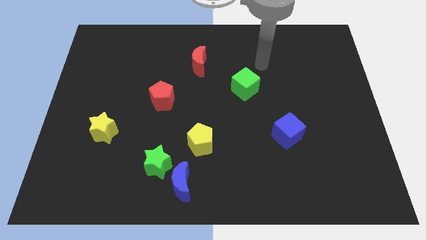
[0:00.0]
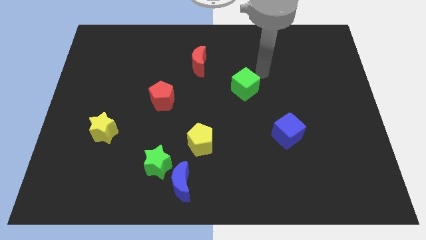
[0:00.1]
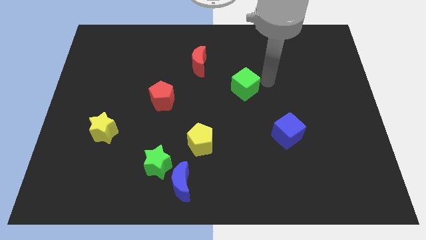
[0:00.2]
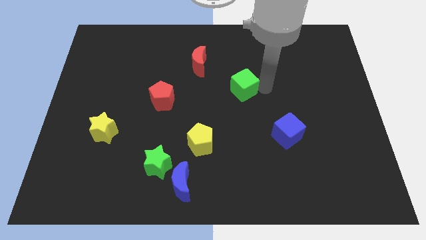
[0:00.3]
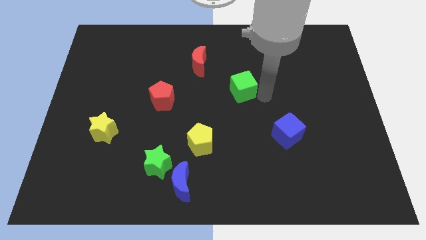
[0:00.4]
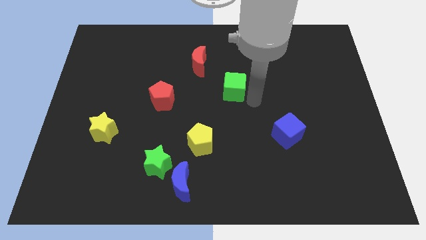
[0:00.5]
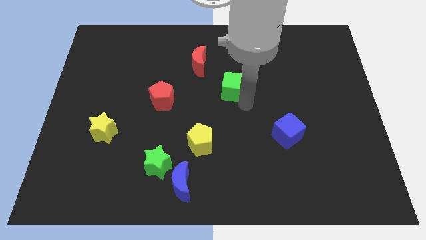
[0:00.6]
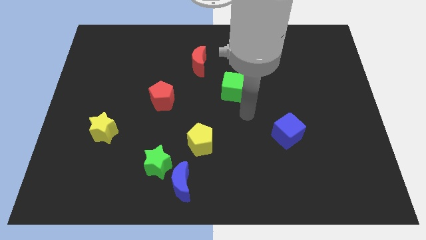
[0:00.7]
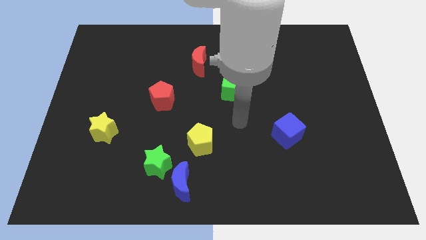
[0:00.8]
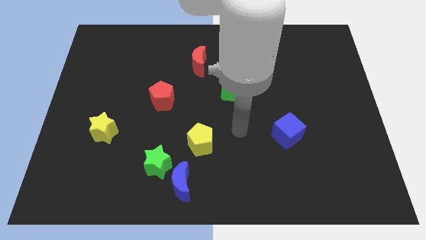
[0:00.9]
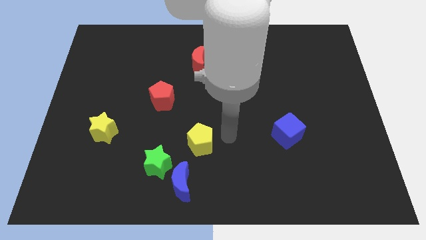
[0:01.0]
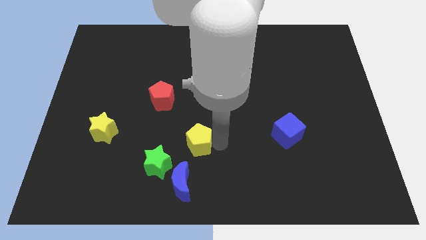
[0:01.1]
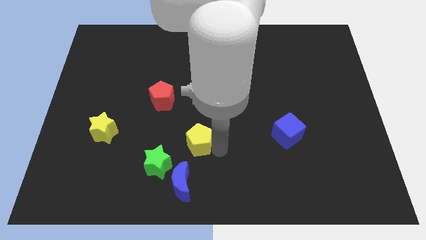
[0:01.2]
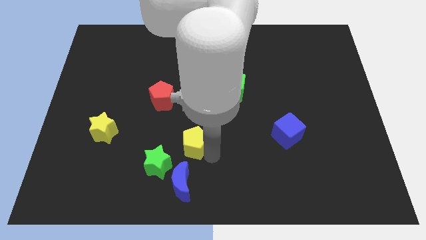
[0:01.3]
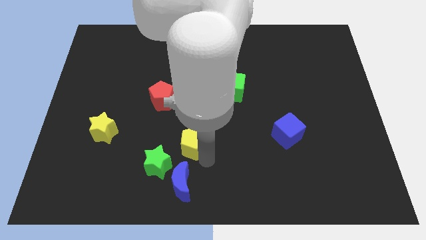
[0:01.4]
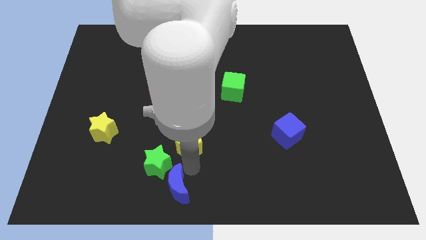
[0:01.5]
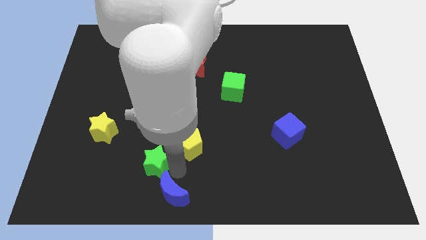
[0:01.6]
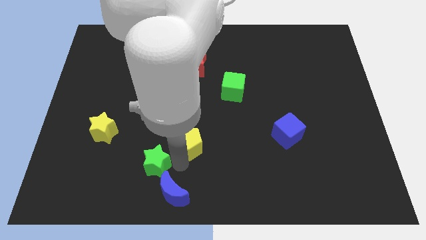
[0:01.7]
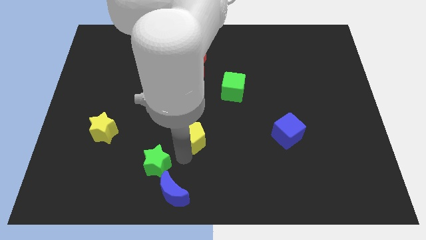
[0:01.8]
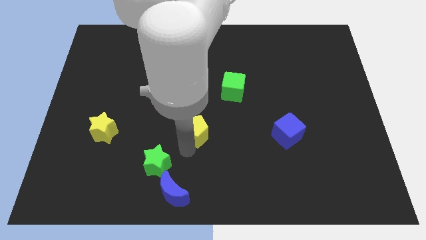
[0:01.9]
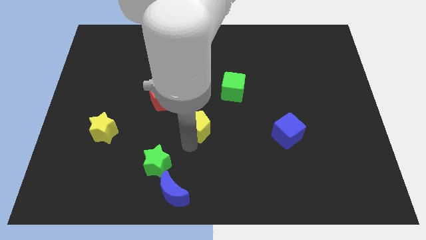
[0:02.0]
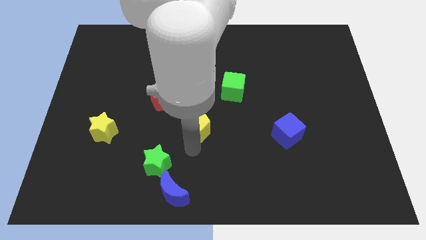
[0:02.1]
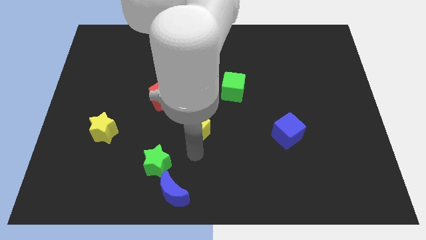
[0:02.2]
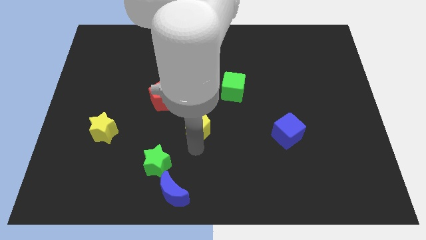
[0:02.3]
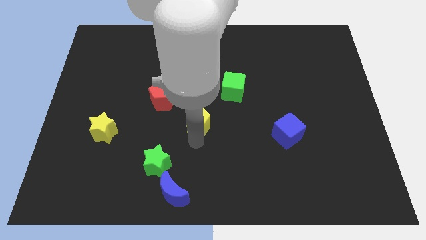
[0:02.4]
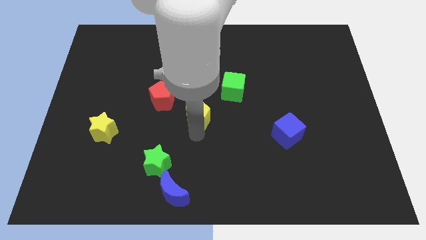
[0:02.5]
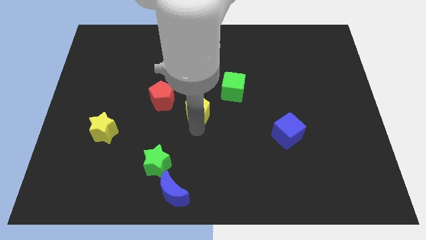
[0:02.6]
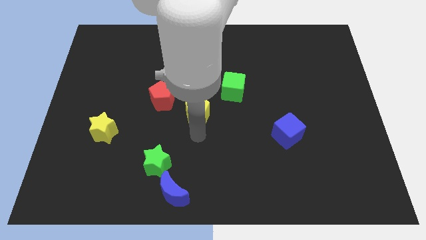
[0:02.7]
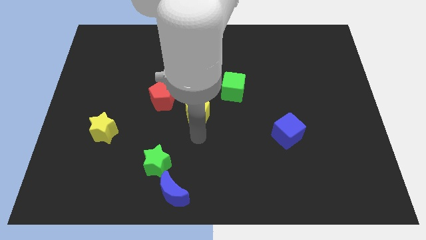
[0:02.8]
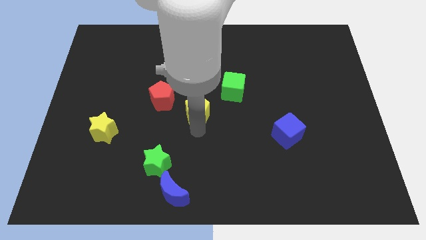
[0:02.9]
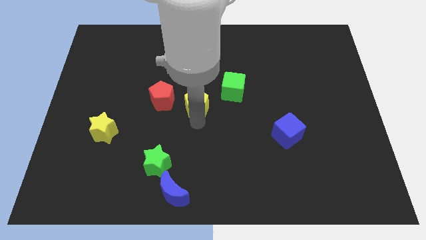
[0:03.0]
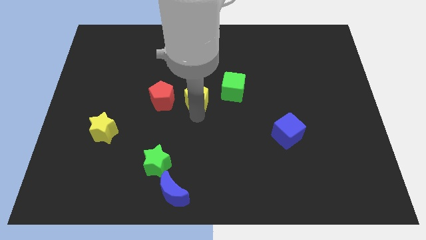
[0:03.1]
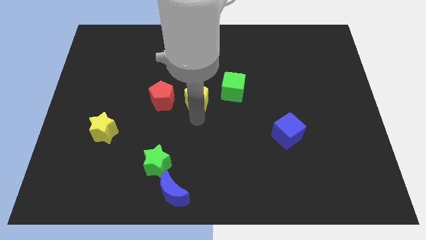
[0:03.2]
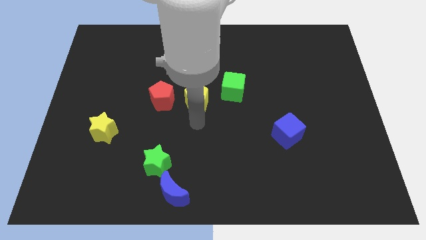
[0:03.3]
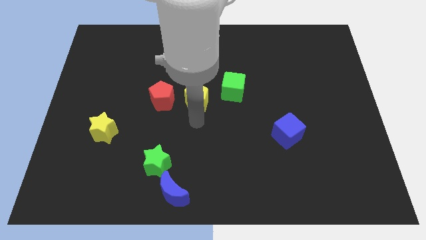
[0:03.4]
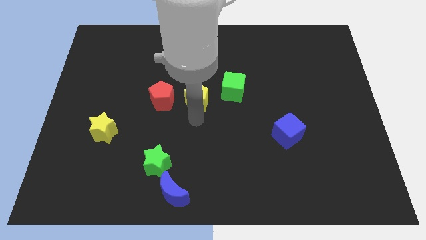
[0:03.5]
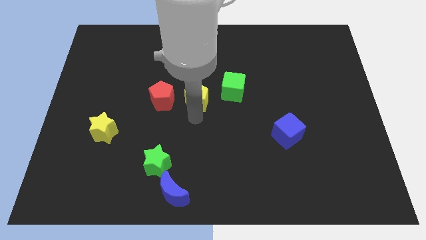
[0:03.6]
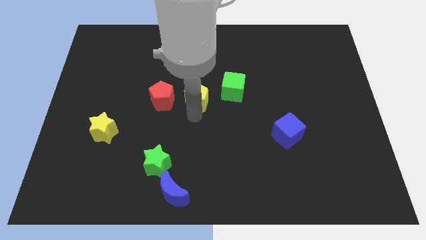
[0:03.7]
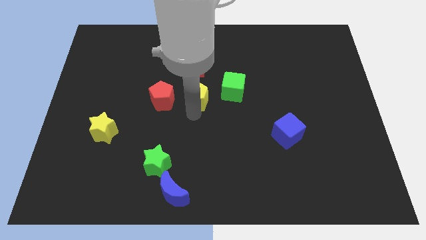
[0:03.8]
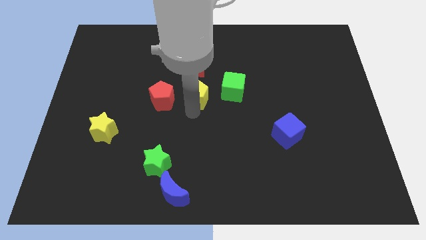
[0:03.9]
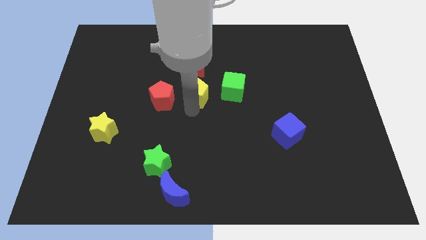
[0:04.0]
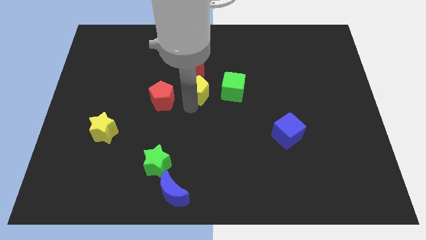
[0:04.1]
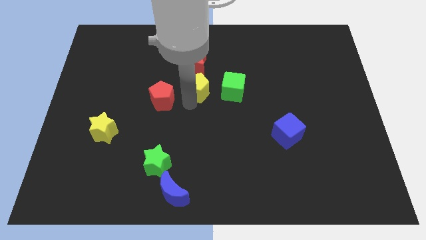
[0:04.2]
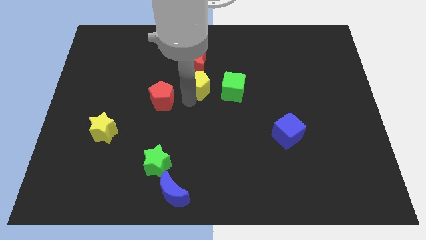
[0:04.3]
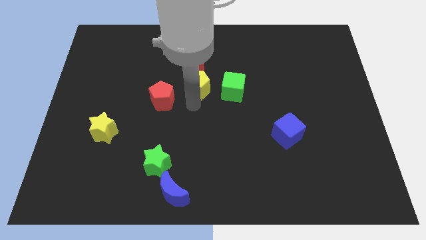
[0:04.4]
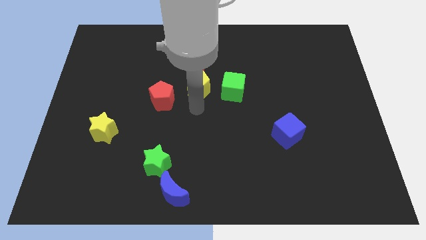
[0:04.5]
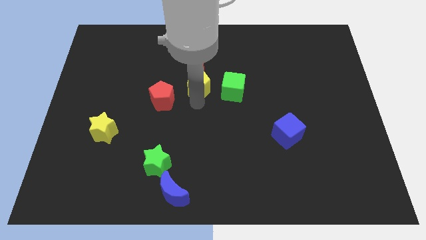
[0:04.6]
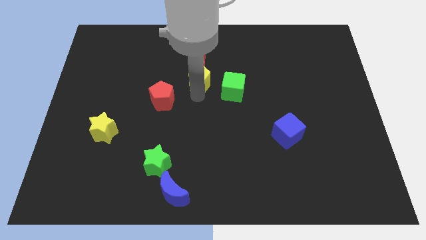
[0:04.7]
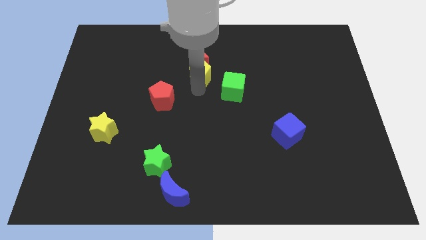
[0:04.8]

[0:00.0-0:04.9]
push the yellow pentagon towards the red moon

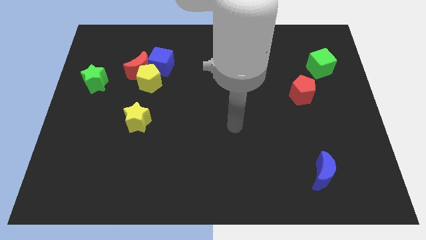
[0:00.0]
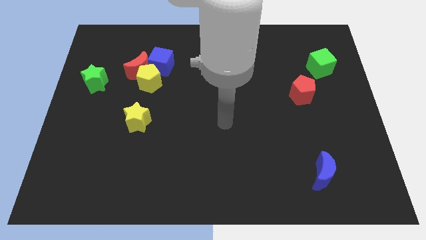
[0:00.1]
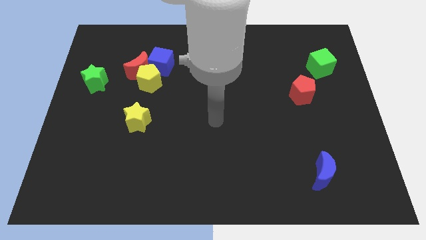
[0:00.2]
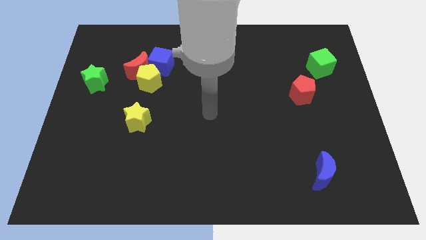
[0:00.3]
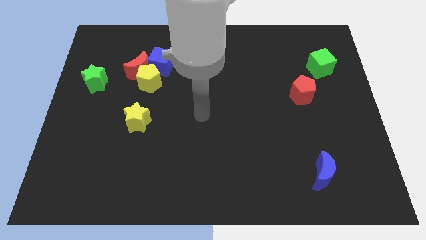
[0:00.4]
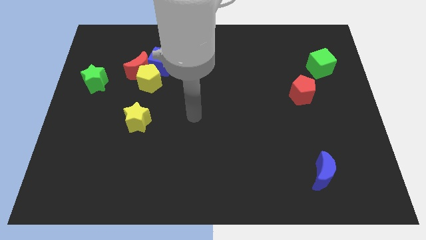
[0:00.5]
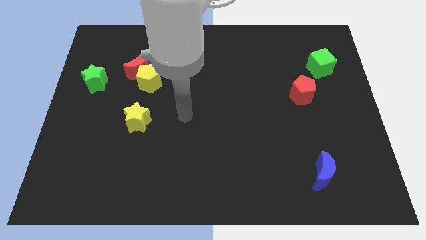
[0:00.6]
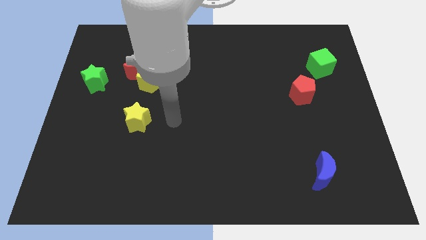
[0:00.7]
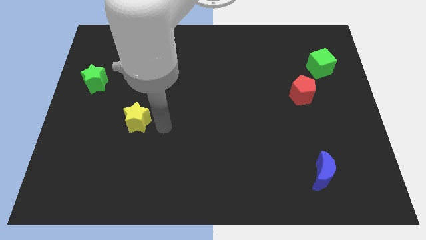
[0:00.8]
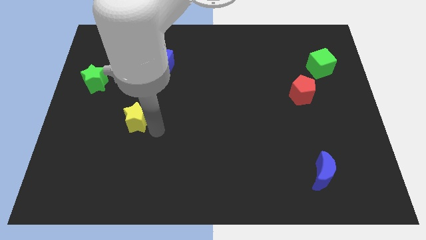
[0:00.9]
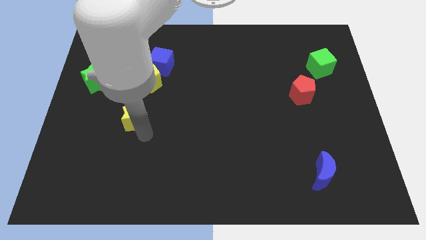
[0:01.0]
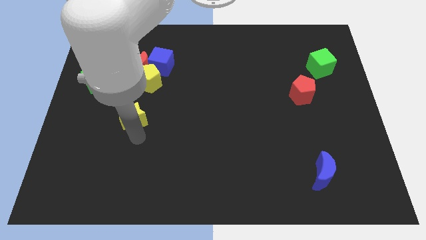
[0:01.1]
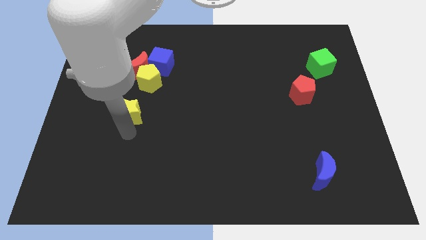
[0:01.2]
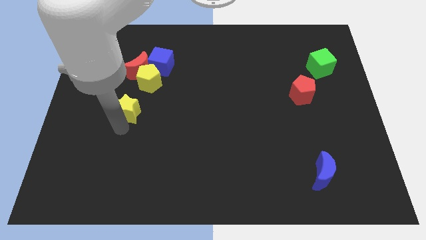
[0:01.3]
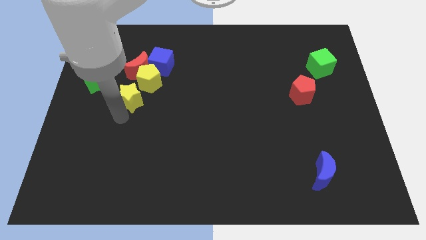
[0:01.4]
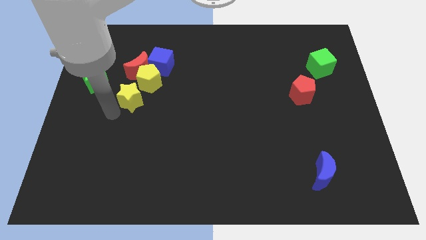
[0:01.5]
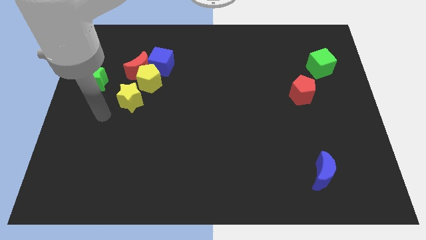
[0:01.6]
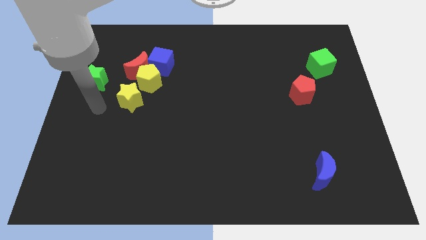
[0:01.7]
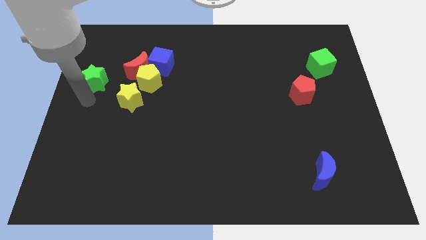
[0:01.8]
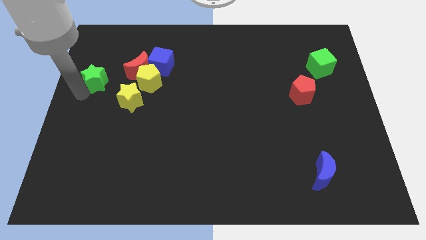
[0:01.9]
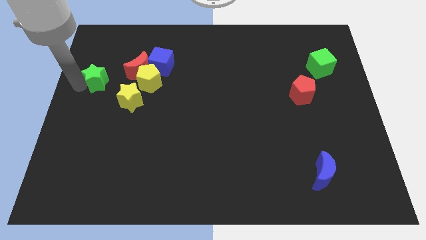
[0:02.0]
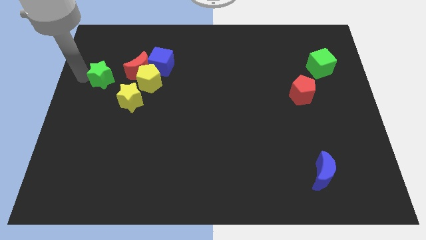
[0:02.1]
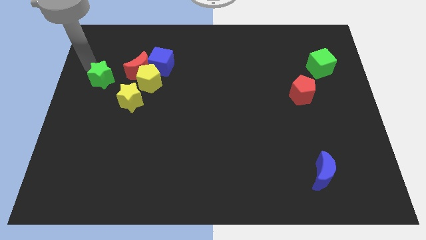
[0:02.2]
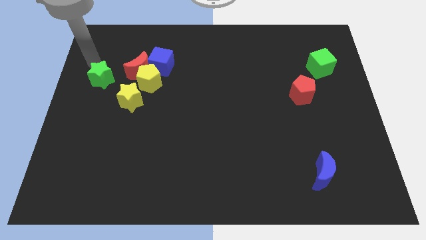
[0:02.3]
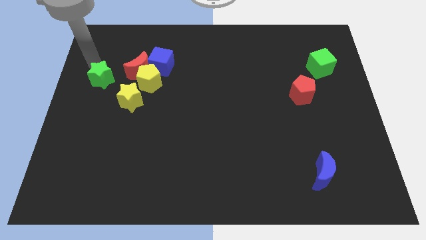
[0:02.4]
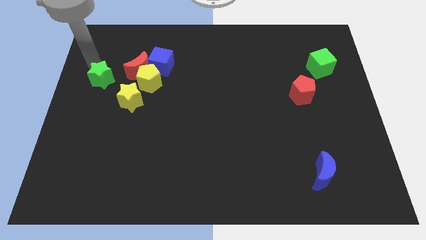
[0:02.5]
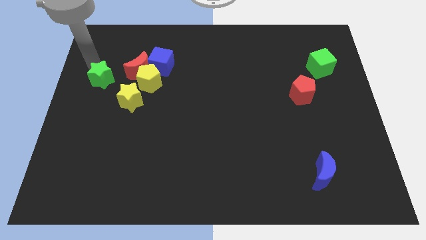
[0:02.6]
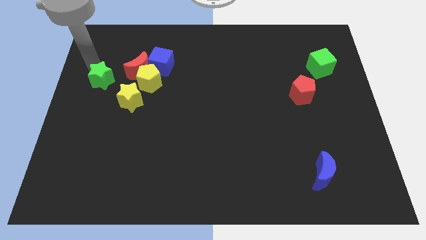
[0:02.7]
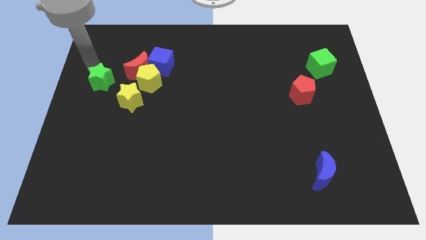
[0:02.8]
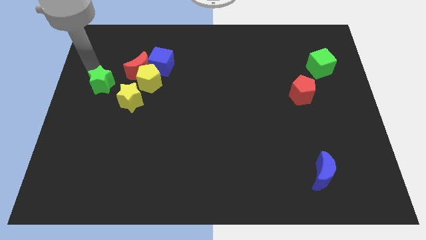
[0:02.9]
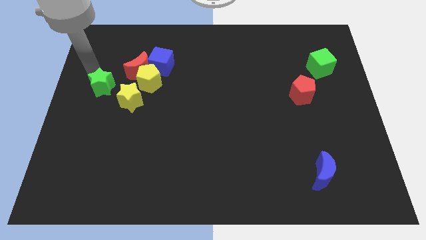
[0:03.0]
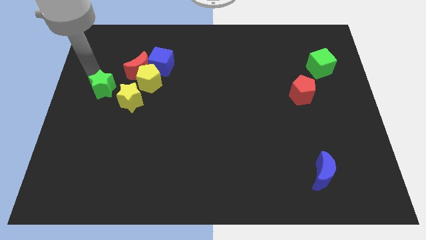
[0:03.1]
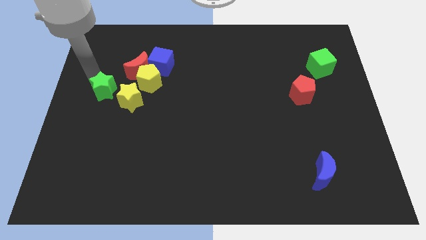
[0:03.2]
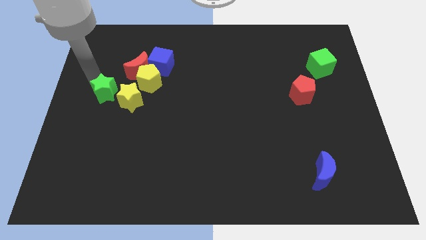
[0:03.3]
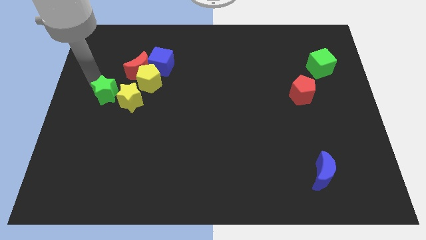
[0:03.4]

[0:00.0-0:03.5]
push the green star to the yellow star
